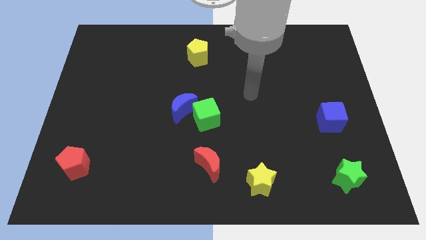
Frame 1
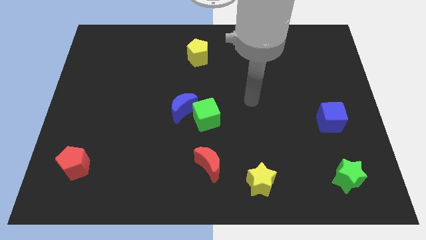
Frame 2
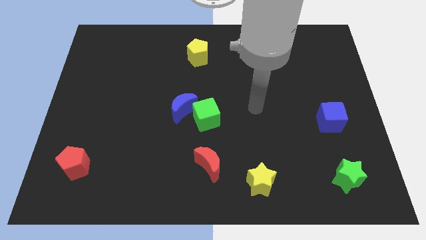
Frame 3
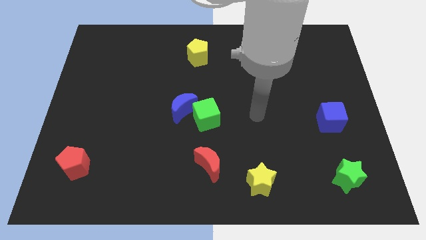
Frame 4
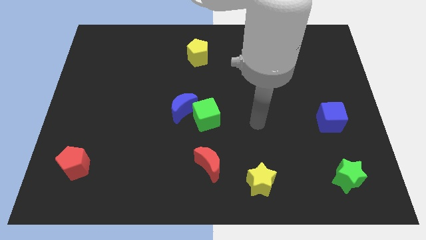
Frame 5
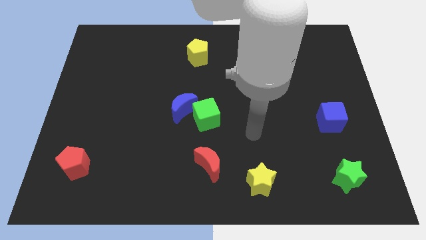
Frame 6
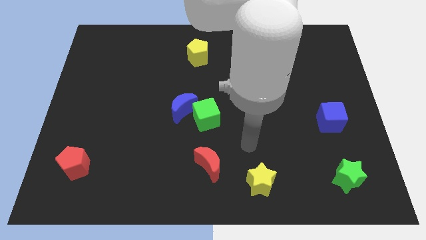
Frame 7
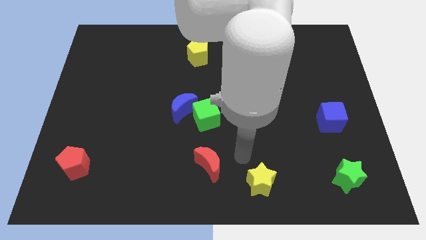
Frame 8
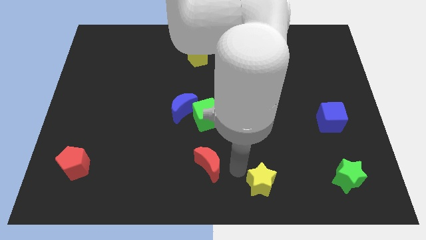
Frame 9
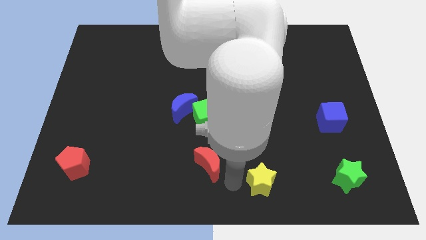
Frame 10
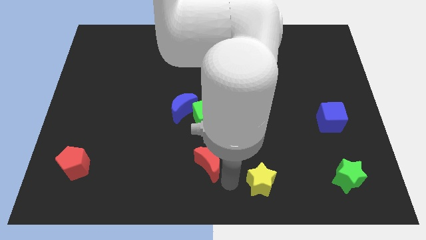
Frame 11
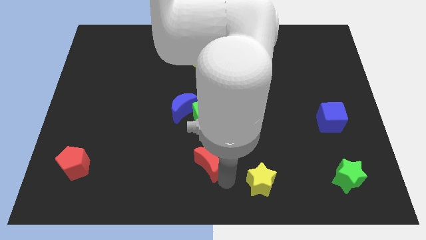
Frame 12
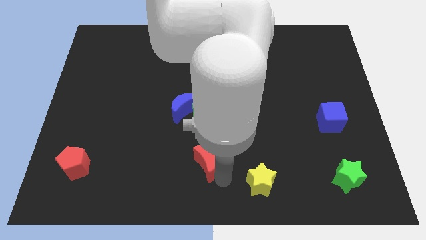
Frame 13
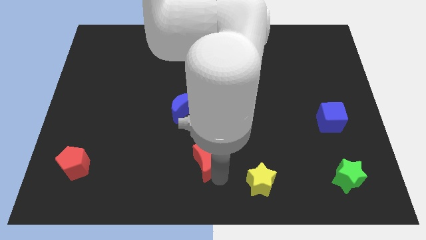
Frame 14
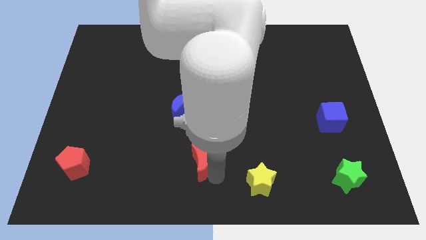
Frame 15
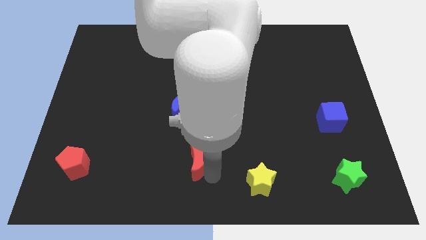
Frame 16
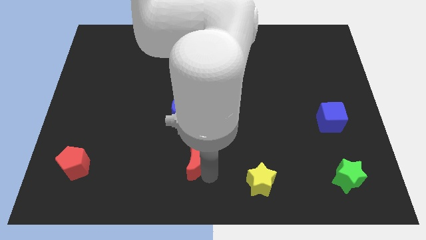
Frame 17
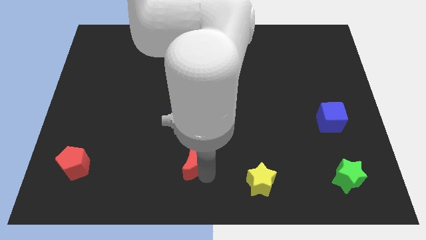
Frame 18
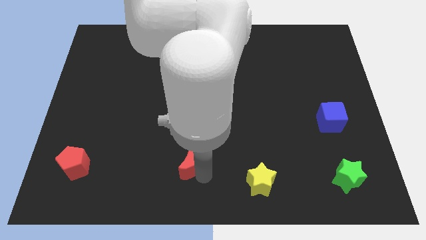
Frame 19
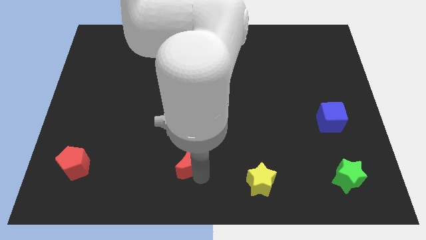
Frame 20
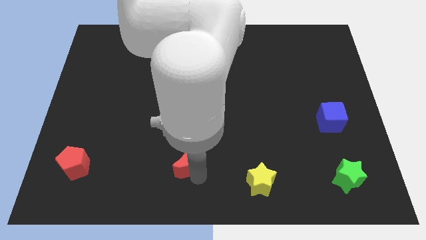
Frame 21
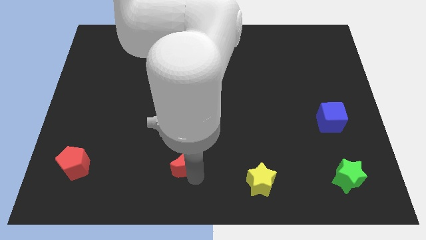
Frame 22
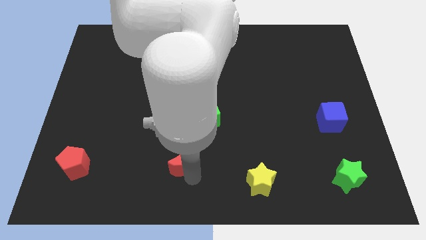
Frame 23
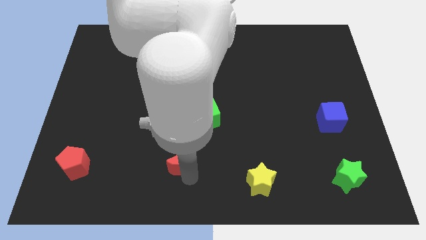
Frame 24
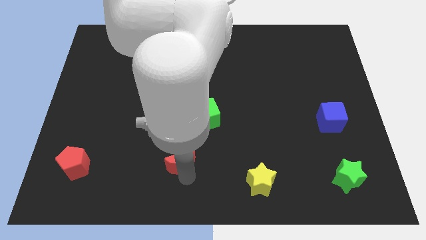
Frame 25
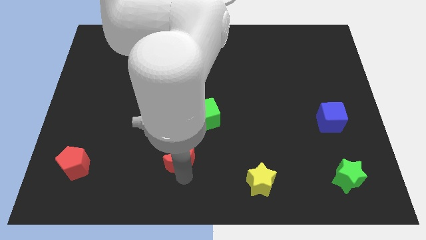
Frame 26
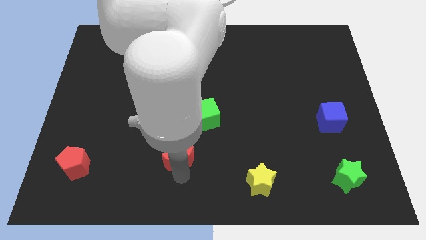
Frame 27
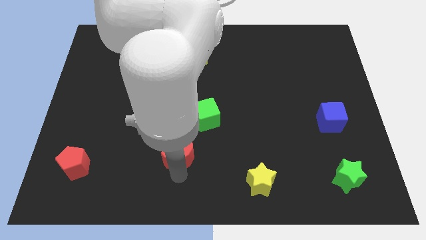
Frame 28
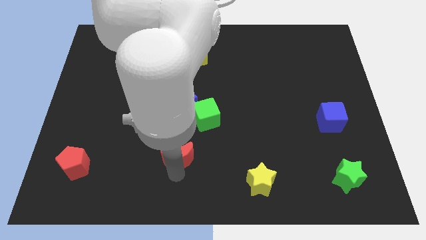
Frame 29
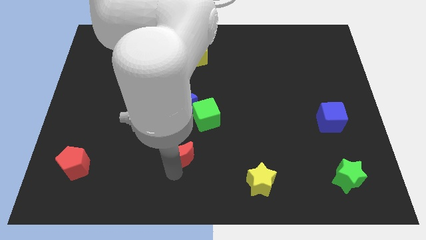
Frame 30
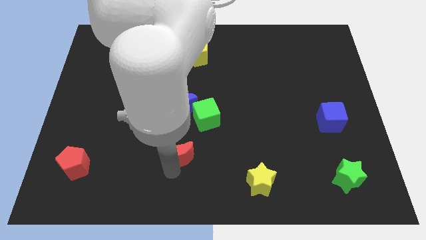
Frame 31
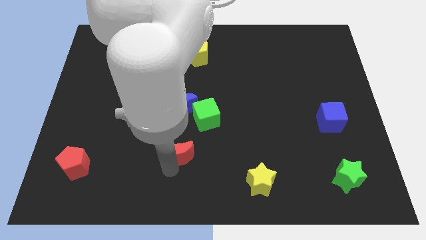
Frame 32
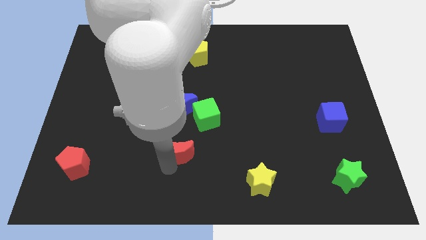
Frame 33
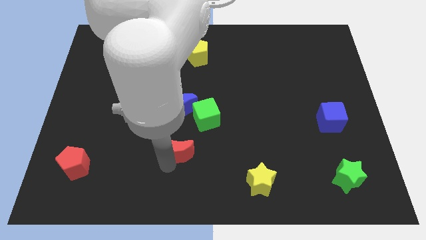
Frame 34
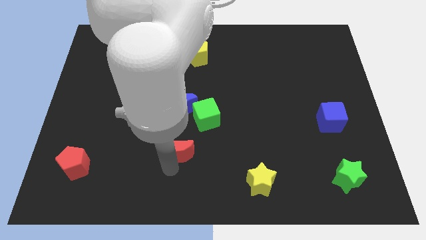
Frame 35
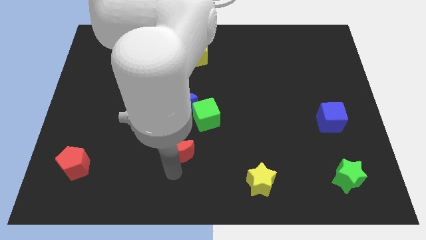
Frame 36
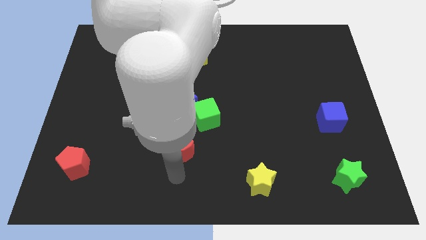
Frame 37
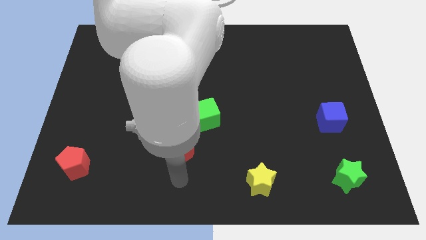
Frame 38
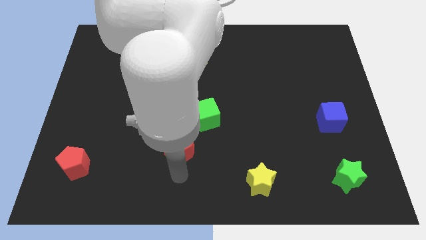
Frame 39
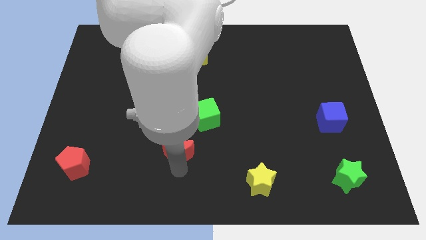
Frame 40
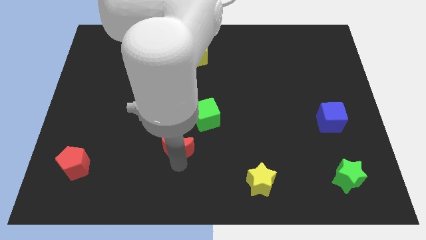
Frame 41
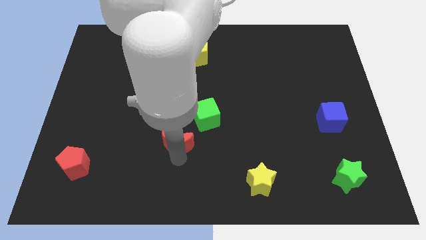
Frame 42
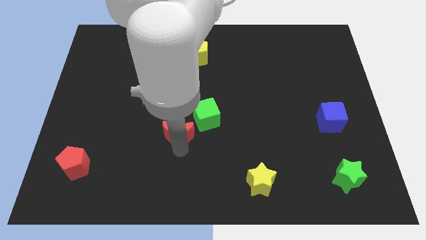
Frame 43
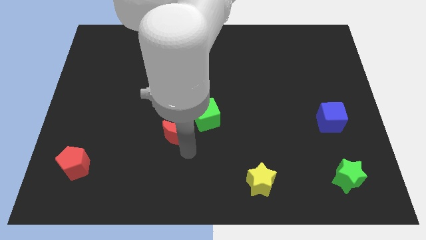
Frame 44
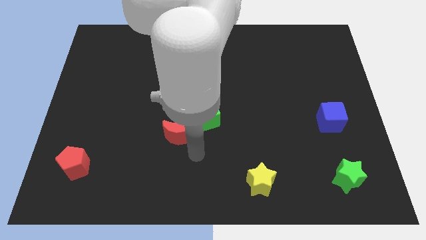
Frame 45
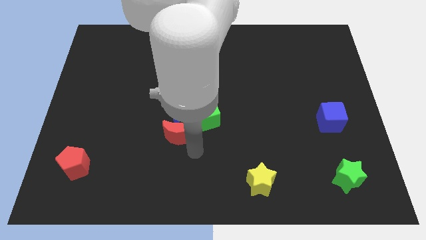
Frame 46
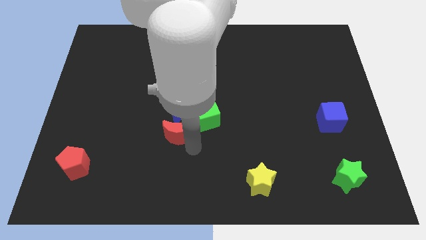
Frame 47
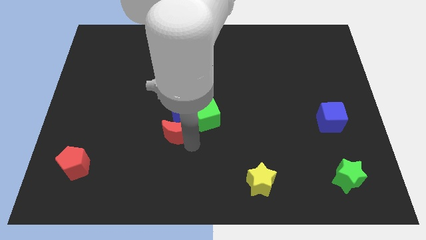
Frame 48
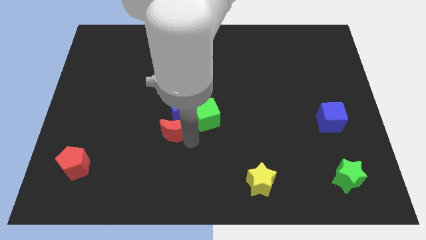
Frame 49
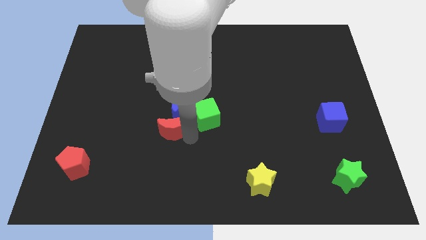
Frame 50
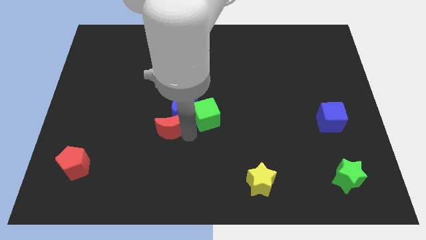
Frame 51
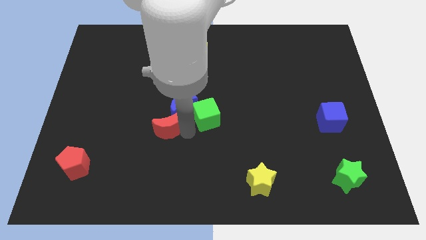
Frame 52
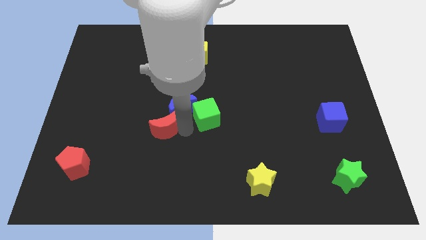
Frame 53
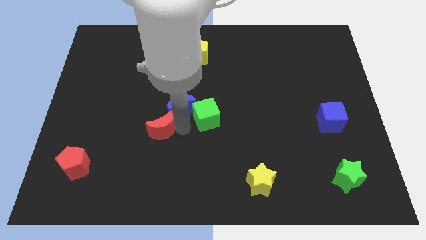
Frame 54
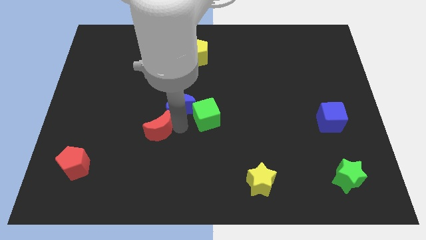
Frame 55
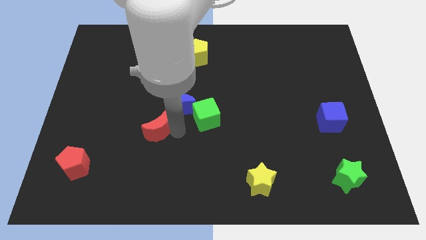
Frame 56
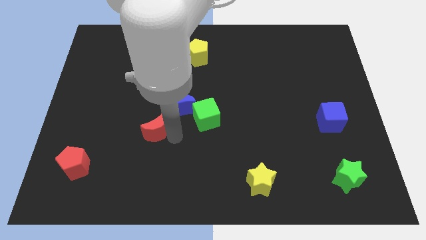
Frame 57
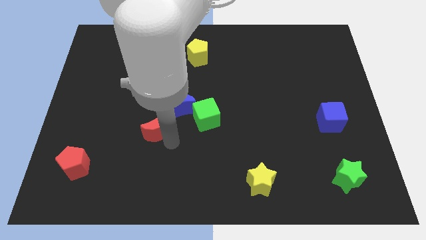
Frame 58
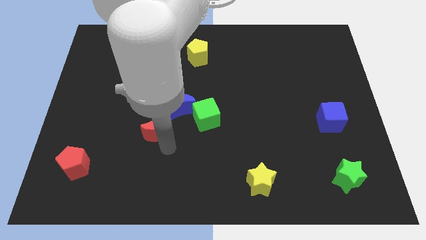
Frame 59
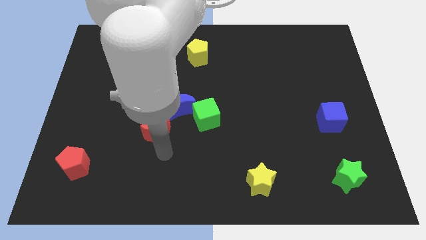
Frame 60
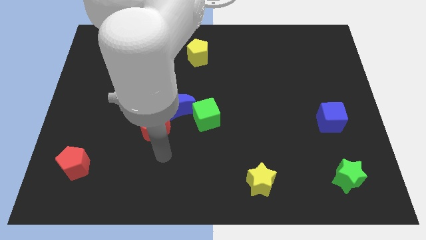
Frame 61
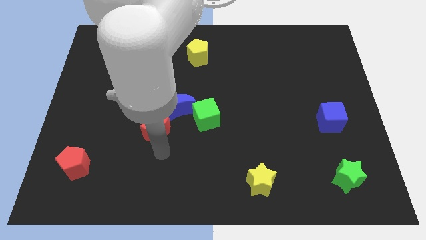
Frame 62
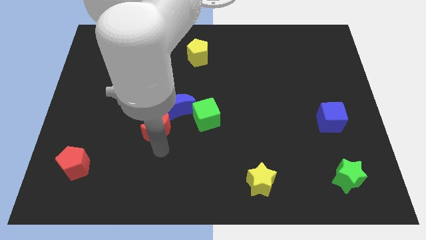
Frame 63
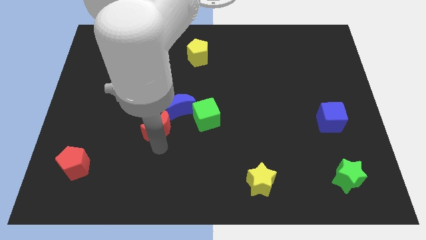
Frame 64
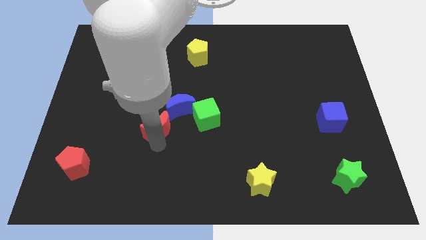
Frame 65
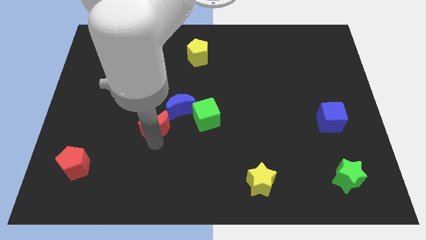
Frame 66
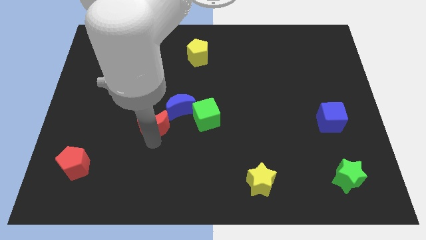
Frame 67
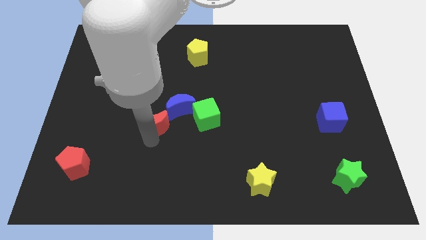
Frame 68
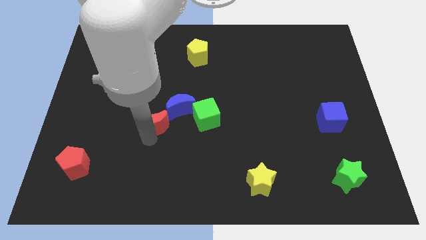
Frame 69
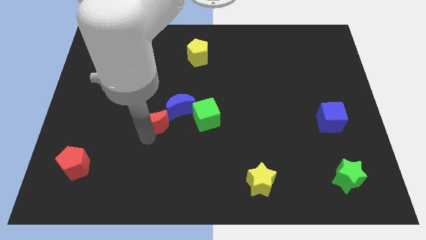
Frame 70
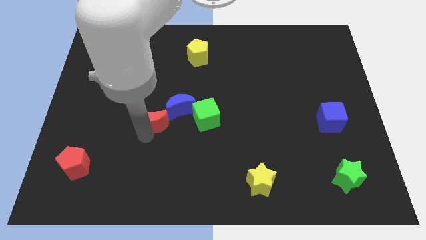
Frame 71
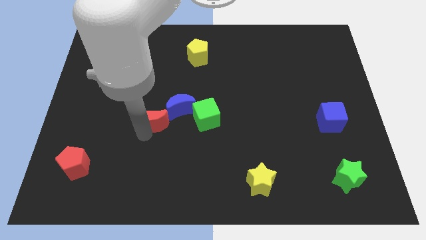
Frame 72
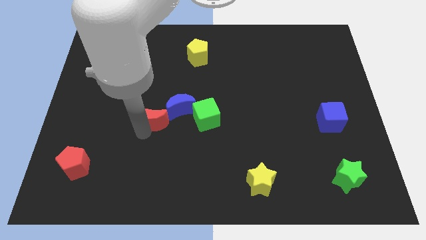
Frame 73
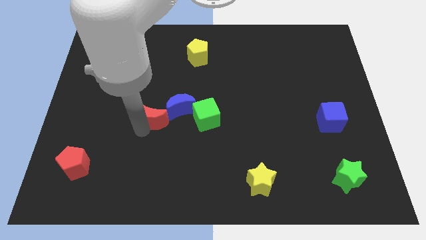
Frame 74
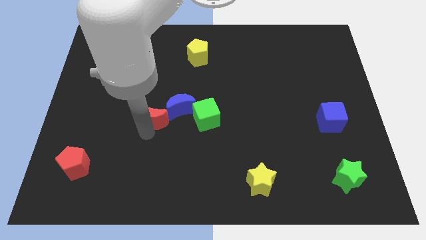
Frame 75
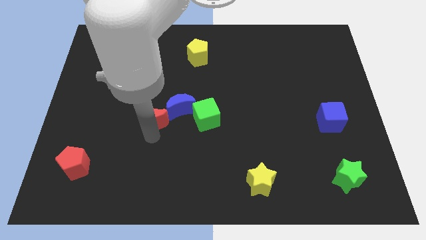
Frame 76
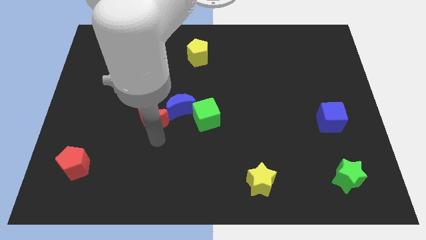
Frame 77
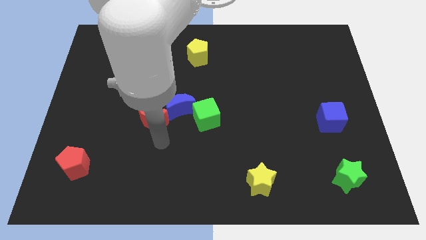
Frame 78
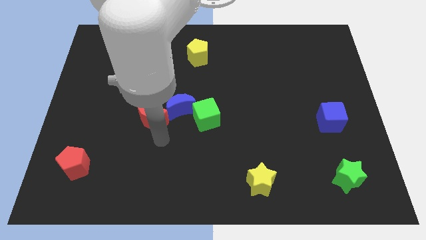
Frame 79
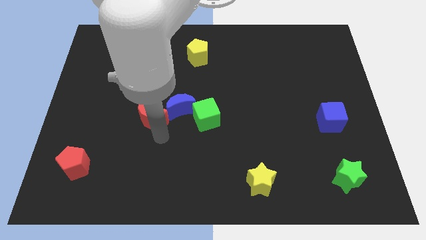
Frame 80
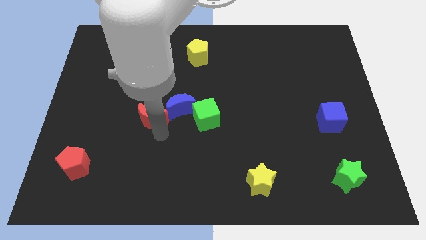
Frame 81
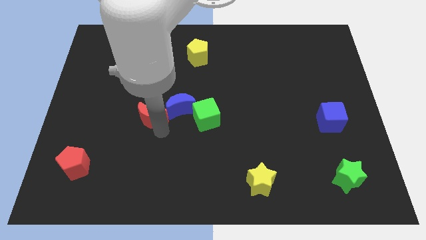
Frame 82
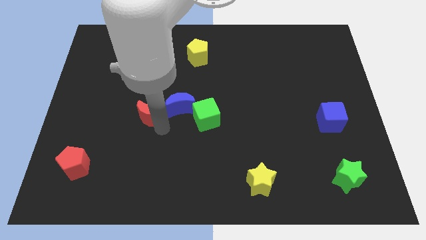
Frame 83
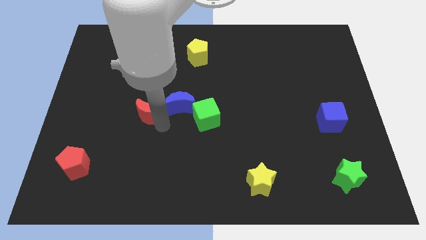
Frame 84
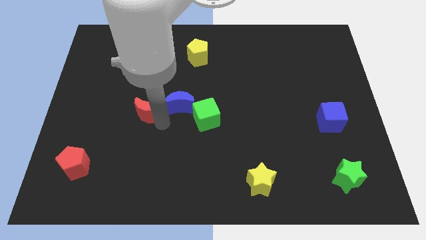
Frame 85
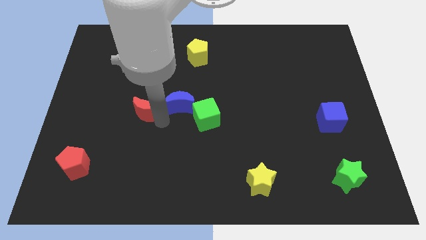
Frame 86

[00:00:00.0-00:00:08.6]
move the red moon up and left diagonally
